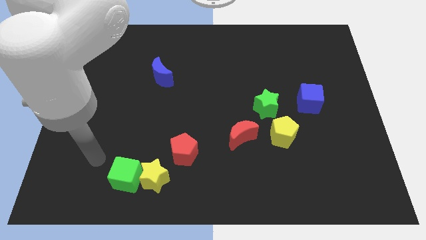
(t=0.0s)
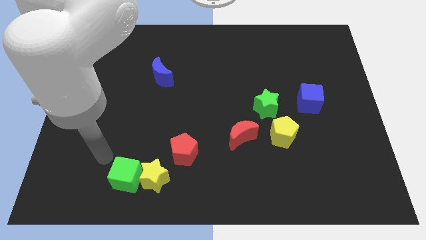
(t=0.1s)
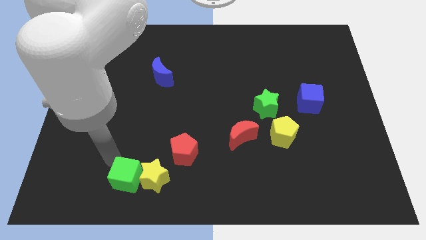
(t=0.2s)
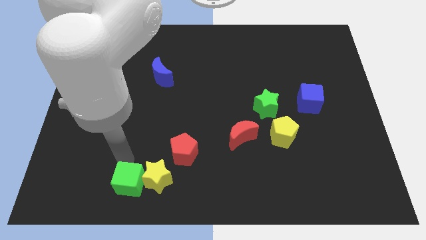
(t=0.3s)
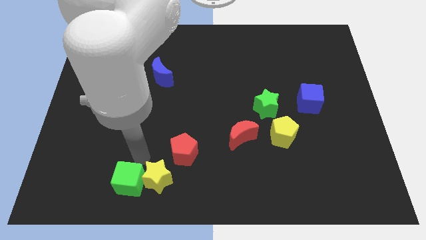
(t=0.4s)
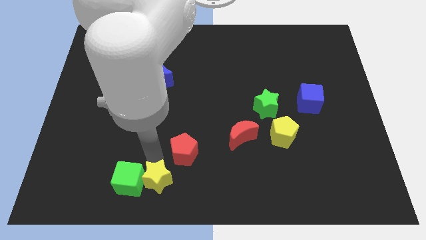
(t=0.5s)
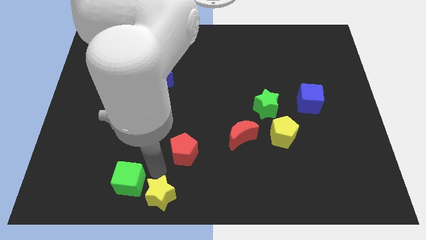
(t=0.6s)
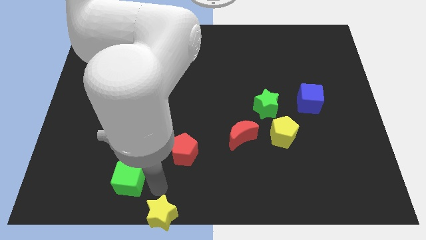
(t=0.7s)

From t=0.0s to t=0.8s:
separate the green cube from the yellow star

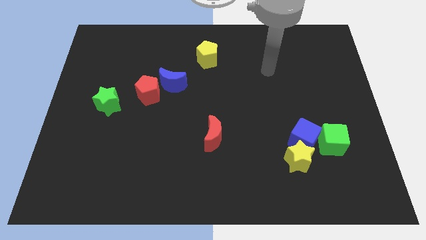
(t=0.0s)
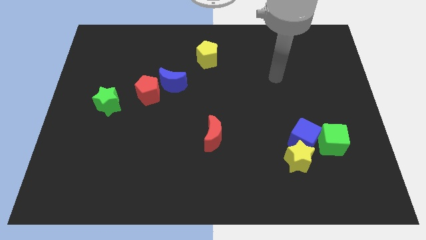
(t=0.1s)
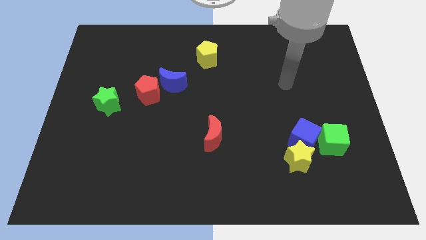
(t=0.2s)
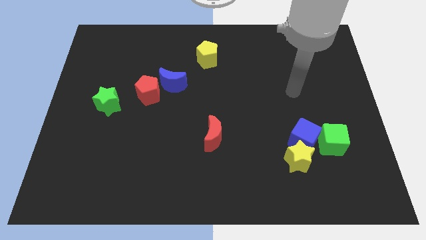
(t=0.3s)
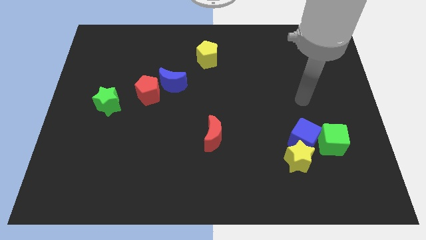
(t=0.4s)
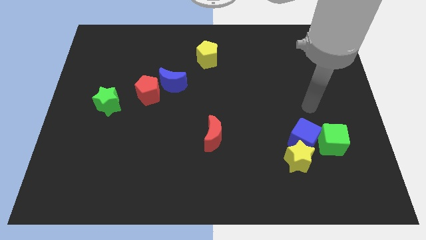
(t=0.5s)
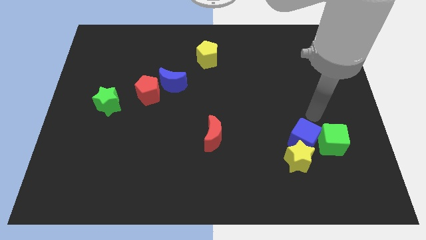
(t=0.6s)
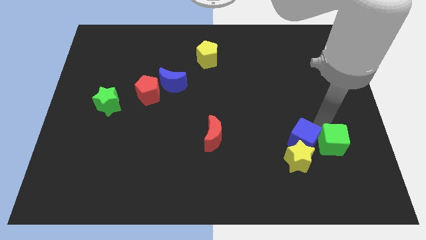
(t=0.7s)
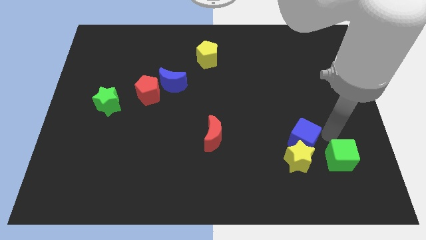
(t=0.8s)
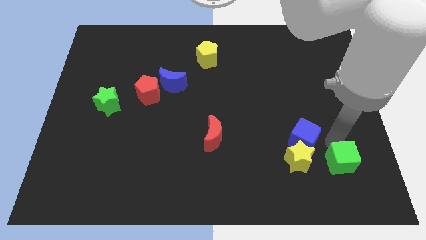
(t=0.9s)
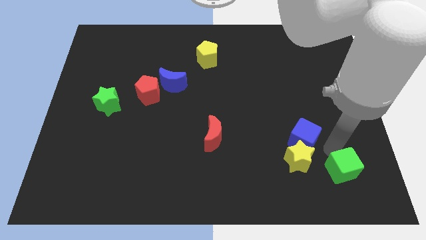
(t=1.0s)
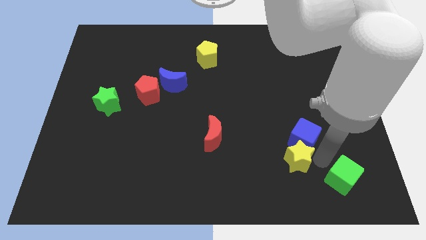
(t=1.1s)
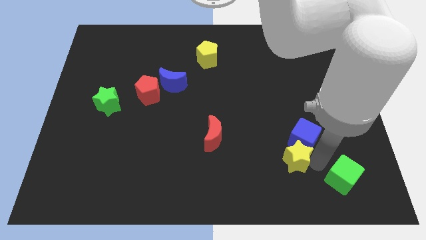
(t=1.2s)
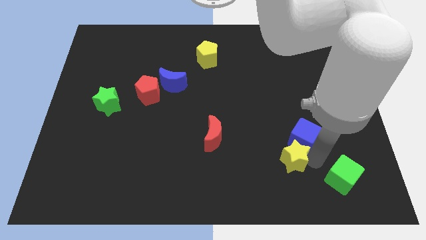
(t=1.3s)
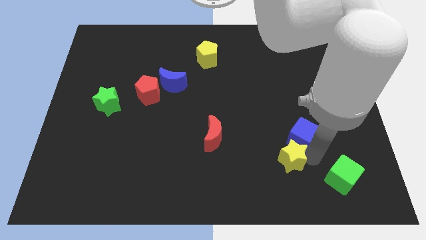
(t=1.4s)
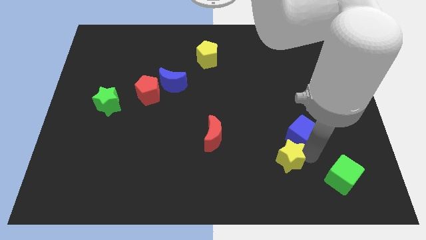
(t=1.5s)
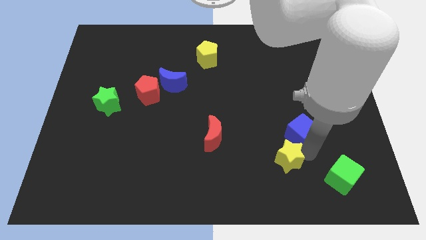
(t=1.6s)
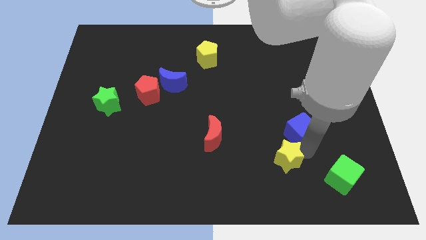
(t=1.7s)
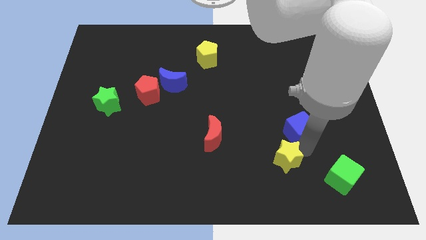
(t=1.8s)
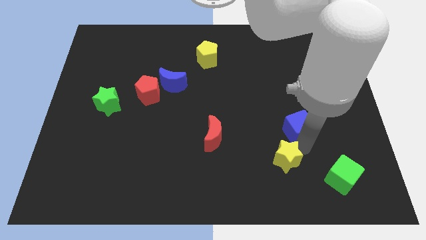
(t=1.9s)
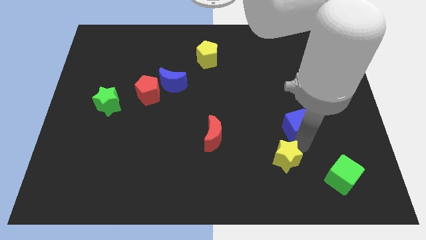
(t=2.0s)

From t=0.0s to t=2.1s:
separate the blue cube from the yellow star and green cube

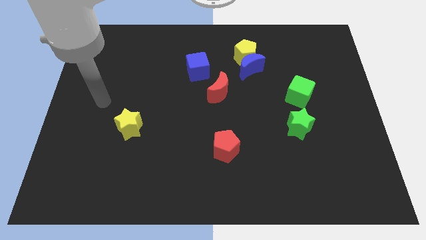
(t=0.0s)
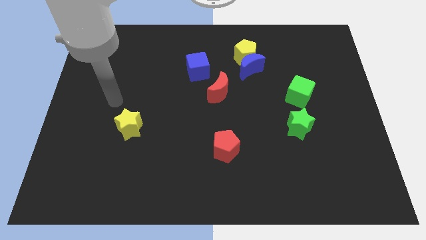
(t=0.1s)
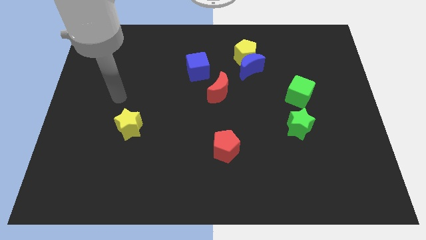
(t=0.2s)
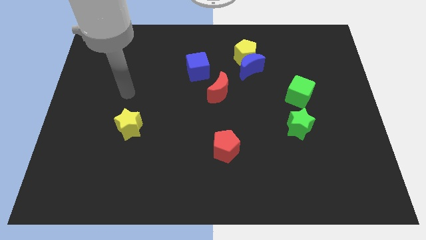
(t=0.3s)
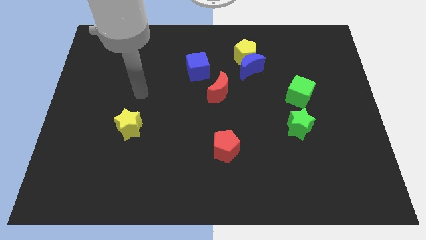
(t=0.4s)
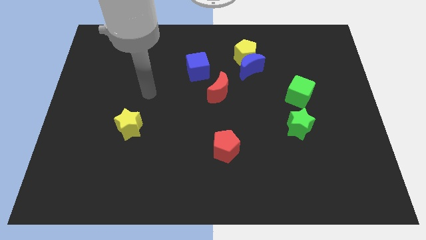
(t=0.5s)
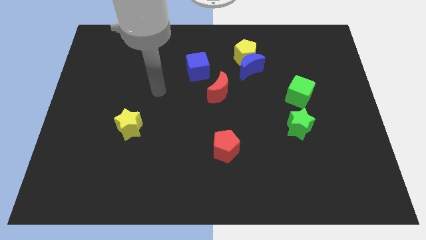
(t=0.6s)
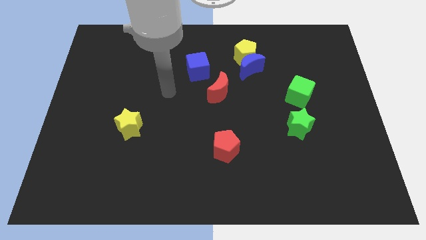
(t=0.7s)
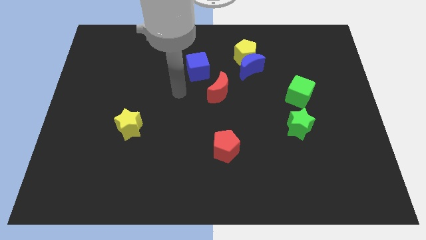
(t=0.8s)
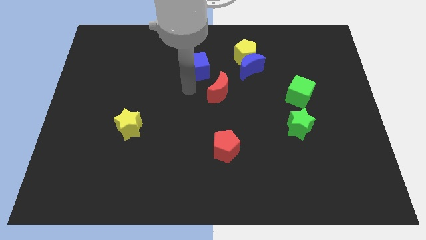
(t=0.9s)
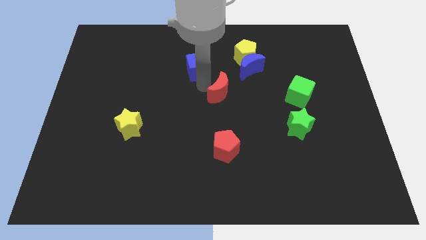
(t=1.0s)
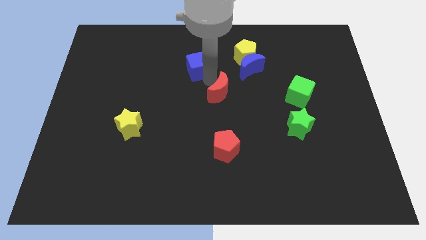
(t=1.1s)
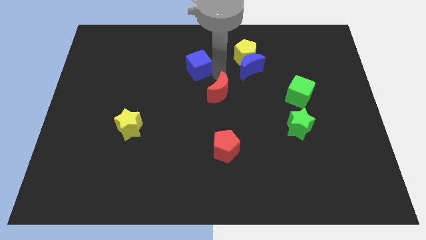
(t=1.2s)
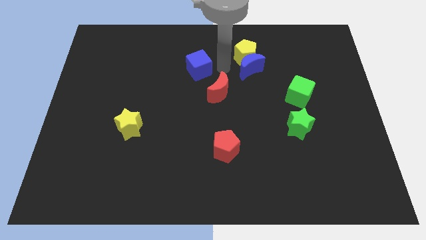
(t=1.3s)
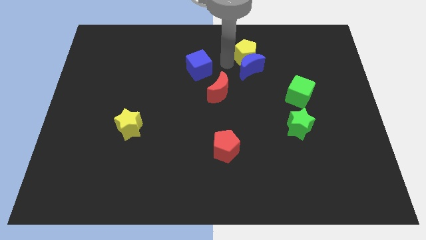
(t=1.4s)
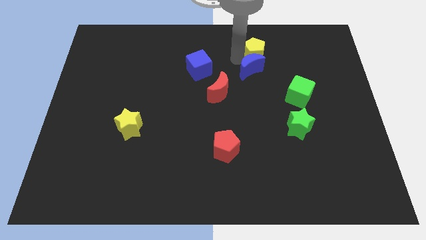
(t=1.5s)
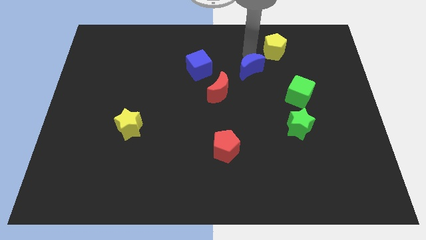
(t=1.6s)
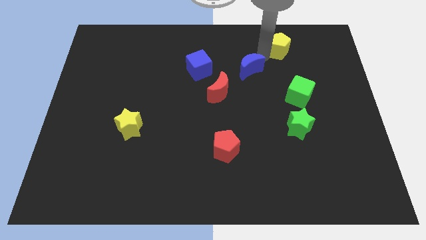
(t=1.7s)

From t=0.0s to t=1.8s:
pull the blue moon apart from the yellow pentagon

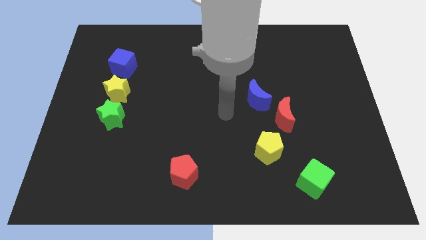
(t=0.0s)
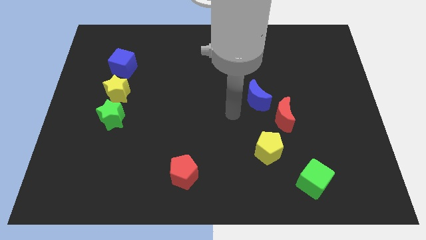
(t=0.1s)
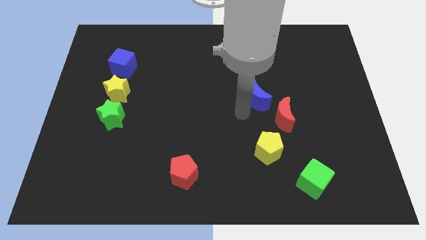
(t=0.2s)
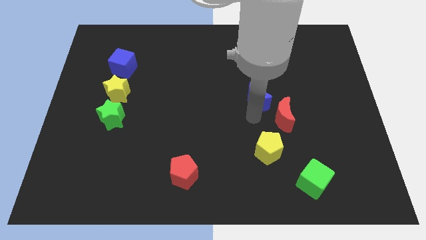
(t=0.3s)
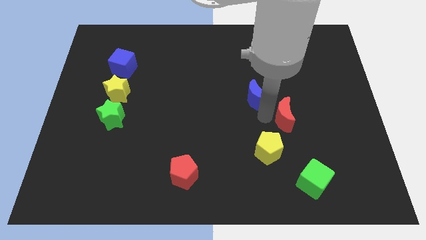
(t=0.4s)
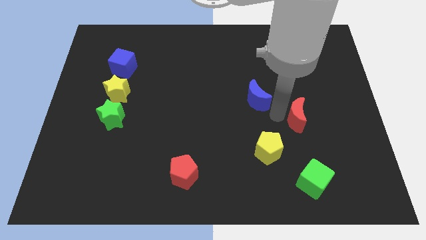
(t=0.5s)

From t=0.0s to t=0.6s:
pull the blue moon apart from the red moon

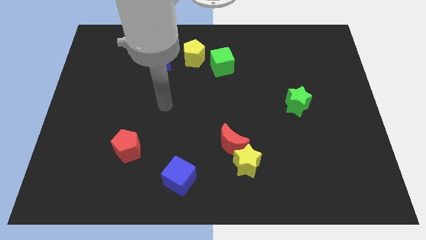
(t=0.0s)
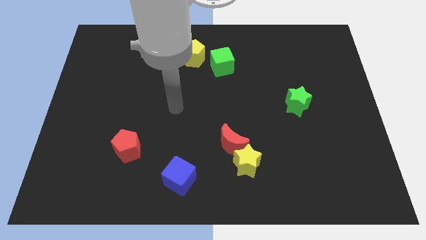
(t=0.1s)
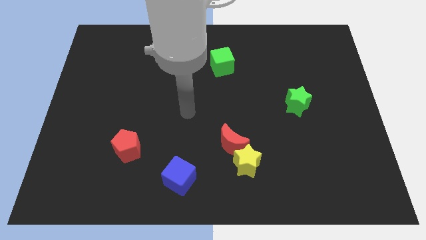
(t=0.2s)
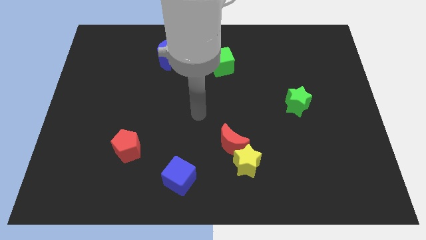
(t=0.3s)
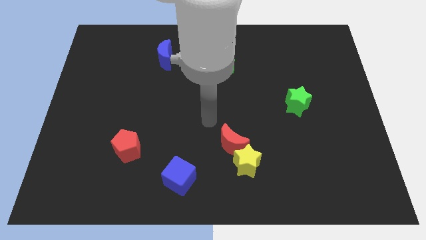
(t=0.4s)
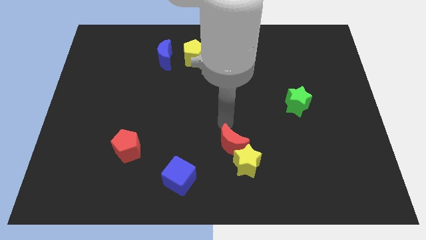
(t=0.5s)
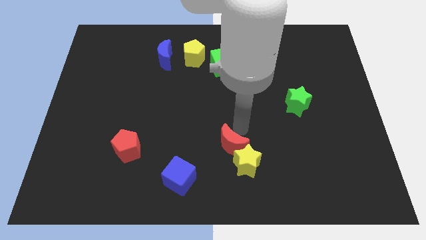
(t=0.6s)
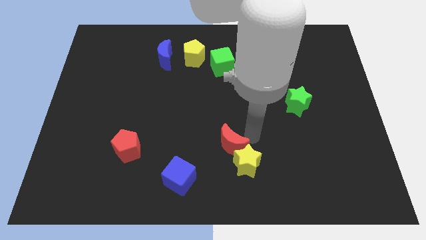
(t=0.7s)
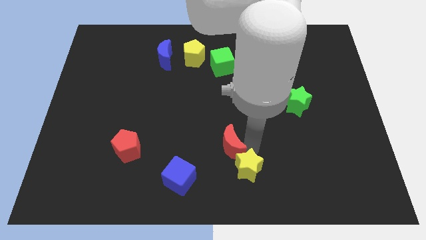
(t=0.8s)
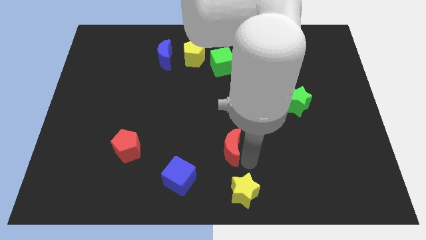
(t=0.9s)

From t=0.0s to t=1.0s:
separate the red moon from the yellow star

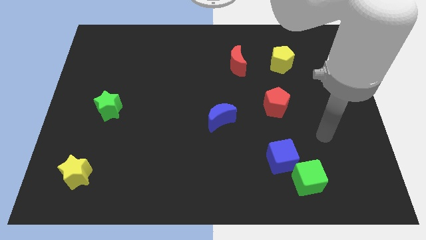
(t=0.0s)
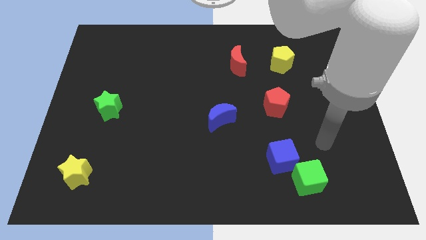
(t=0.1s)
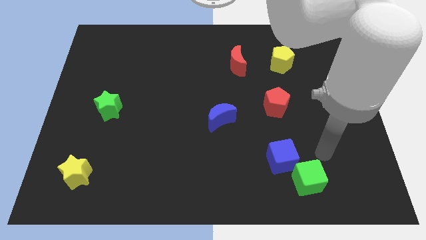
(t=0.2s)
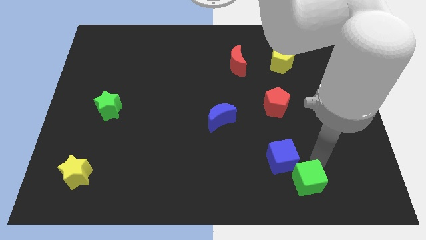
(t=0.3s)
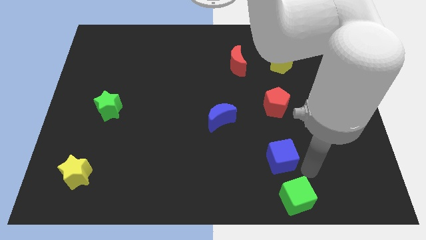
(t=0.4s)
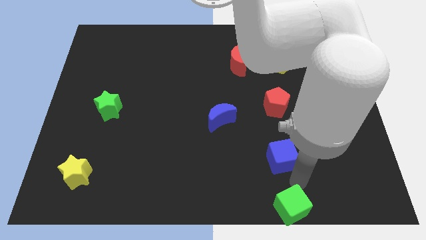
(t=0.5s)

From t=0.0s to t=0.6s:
move the blue cube away from the green cube

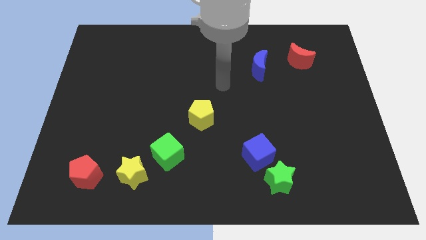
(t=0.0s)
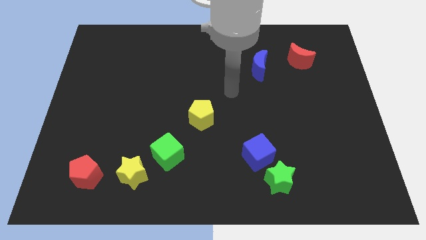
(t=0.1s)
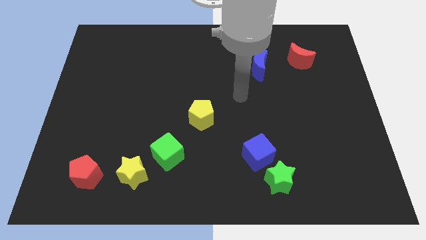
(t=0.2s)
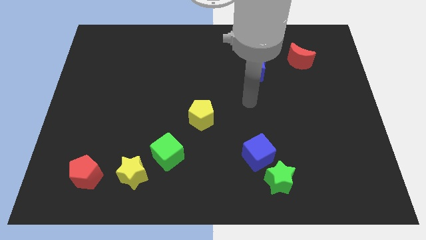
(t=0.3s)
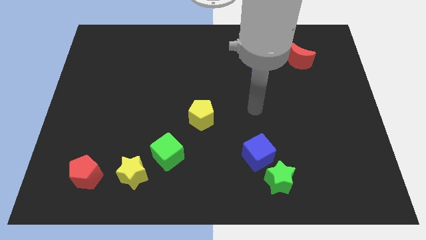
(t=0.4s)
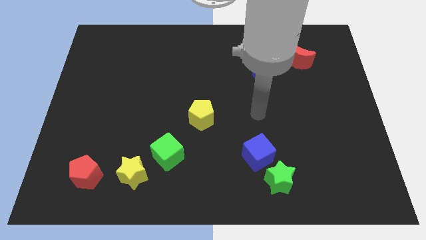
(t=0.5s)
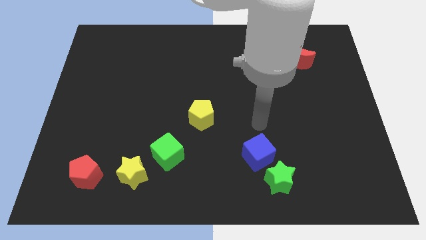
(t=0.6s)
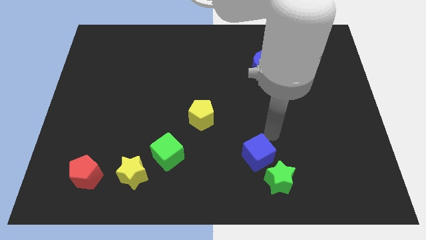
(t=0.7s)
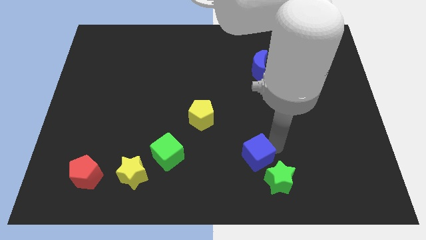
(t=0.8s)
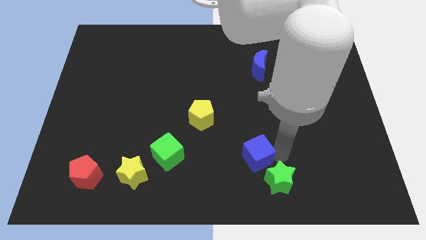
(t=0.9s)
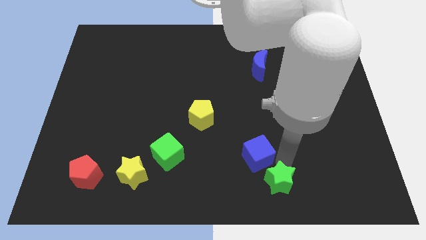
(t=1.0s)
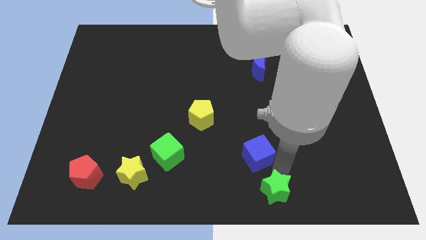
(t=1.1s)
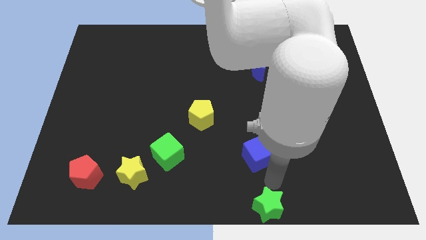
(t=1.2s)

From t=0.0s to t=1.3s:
move the blue cube away from the green star

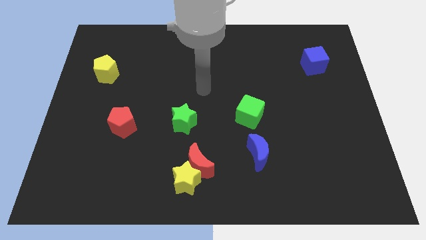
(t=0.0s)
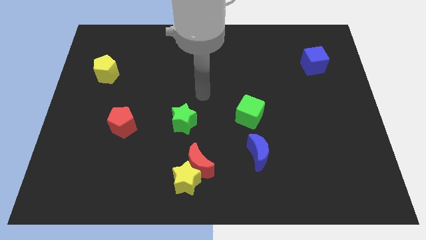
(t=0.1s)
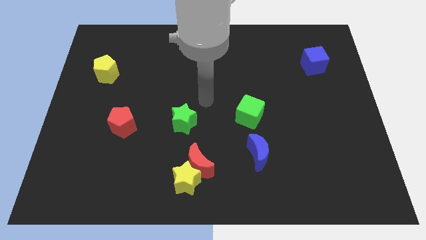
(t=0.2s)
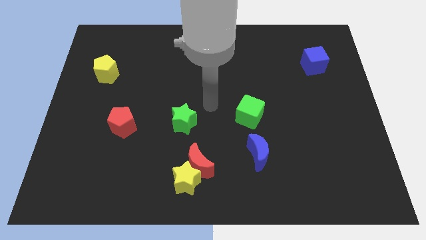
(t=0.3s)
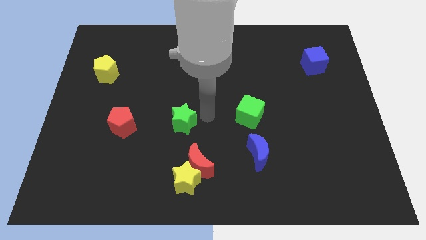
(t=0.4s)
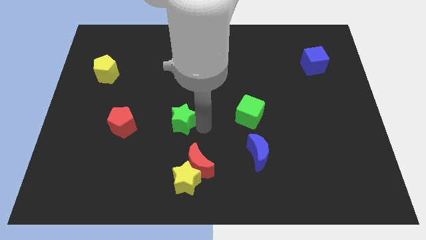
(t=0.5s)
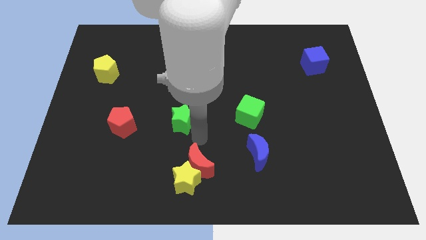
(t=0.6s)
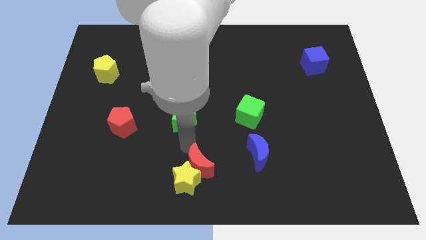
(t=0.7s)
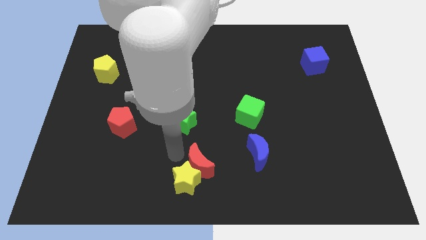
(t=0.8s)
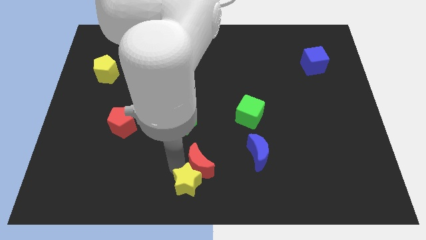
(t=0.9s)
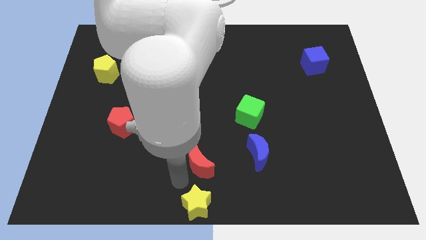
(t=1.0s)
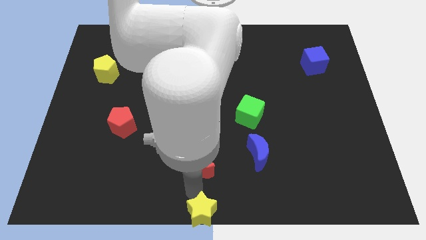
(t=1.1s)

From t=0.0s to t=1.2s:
move the red moon away from the yellow star

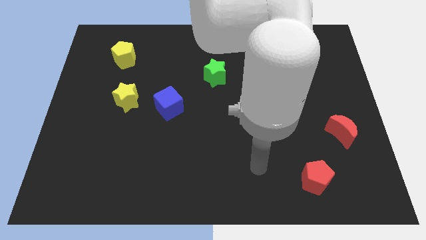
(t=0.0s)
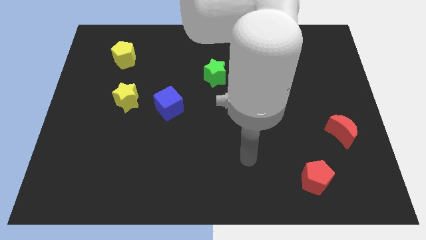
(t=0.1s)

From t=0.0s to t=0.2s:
move the blue cube away from the yellow star
